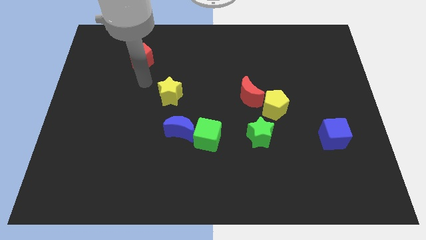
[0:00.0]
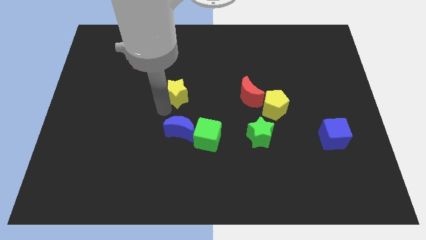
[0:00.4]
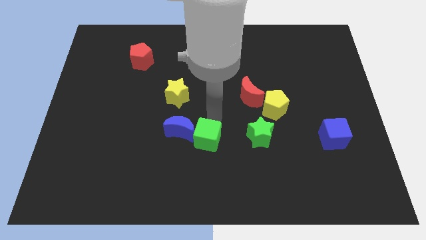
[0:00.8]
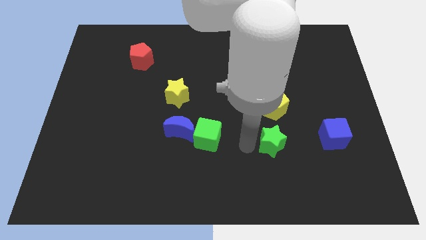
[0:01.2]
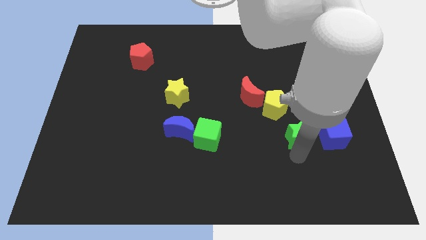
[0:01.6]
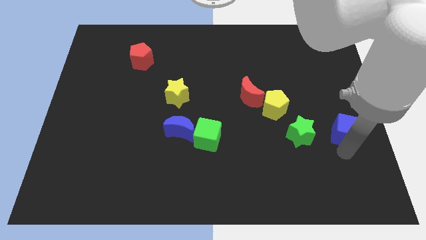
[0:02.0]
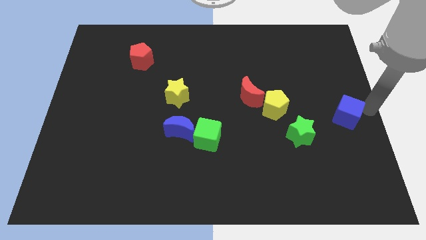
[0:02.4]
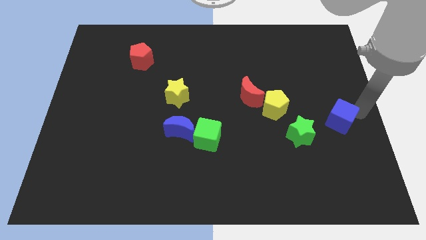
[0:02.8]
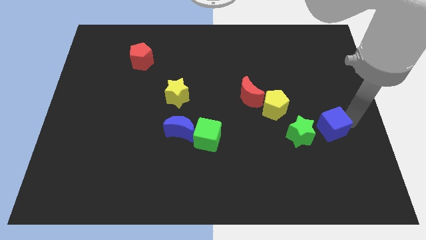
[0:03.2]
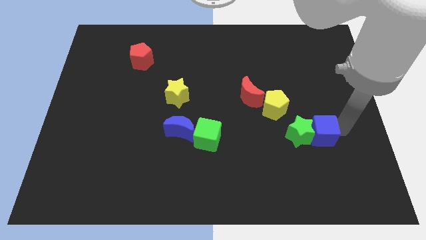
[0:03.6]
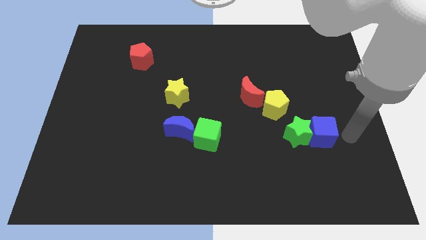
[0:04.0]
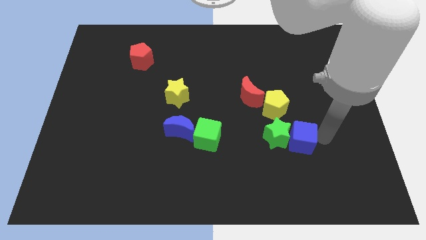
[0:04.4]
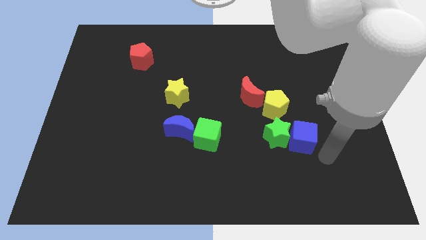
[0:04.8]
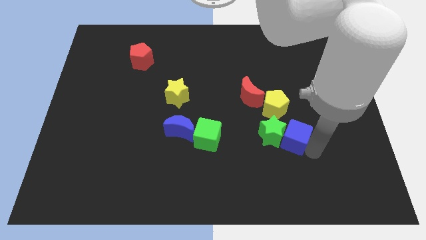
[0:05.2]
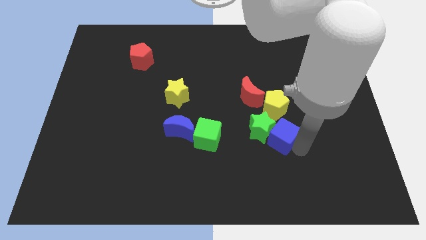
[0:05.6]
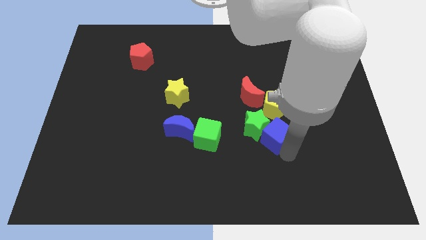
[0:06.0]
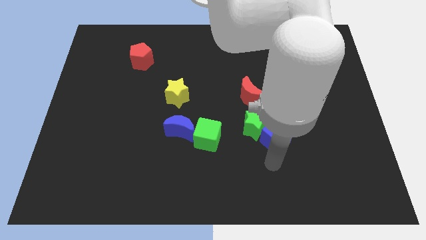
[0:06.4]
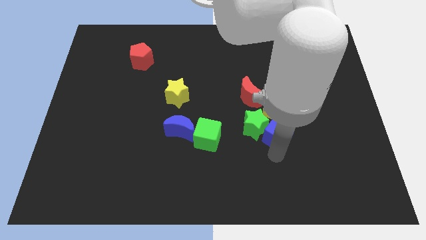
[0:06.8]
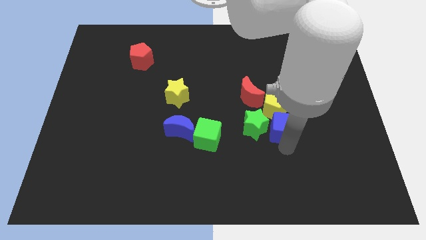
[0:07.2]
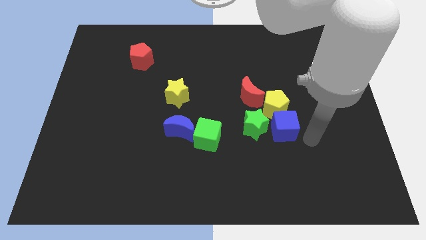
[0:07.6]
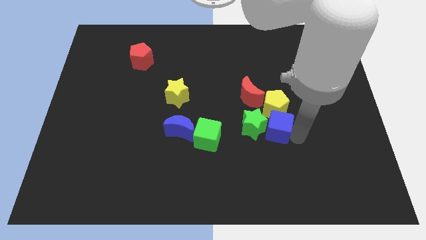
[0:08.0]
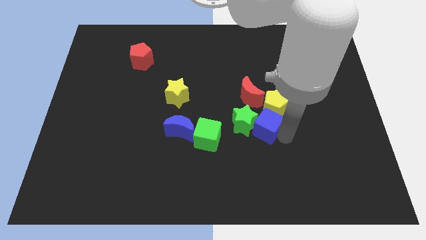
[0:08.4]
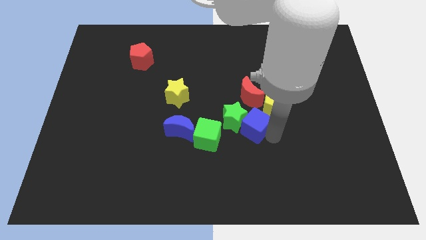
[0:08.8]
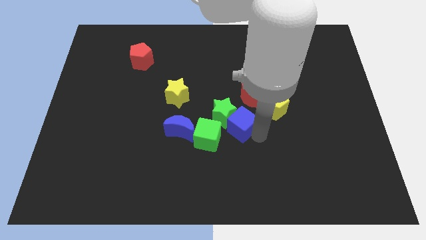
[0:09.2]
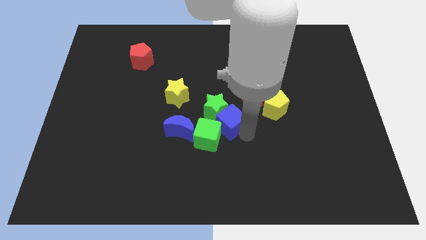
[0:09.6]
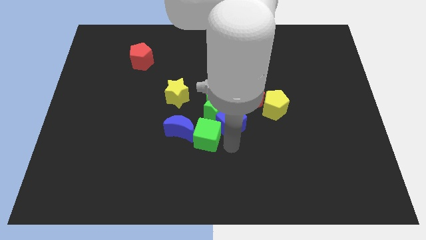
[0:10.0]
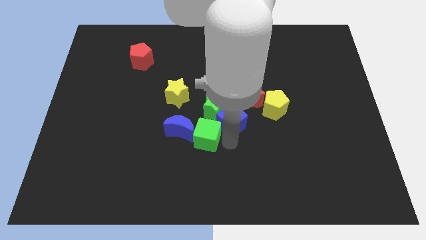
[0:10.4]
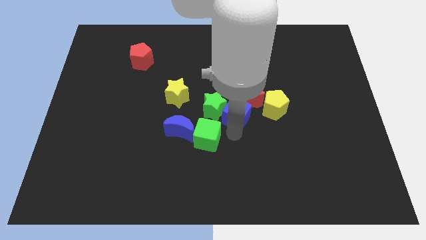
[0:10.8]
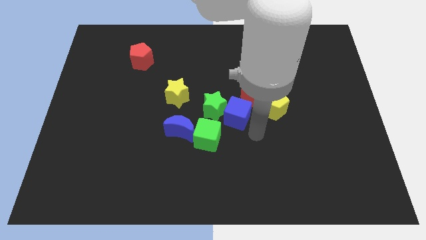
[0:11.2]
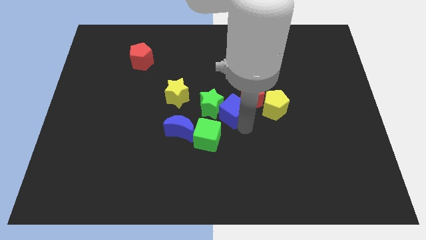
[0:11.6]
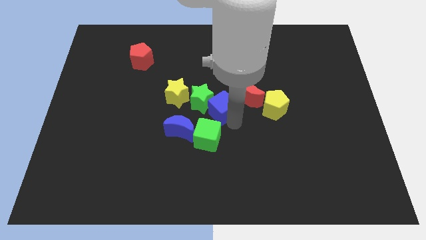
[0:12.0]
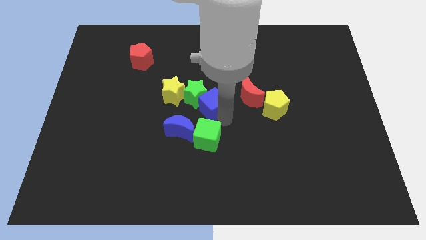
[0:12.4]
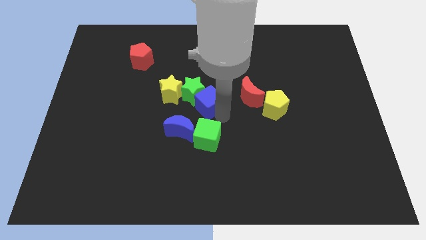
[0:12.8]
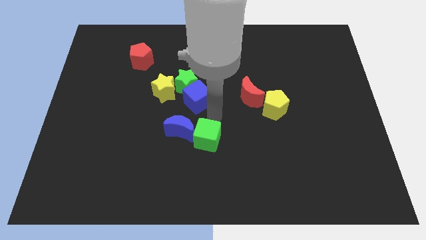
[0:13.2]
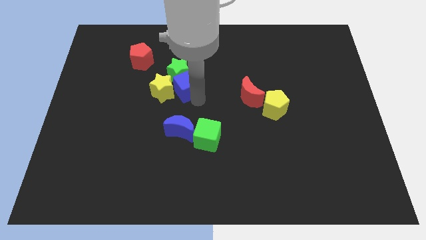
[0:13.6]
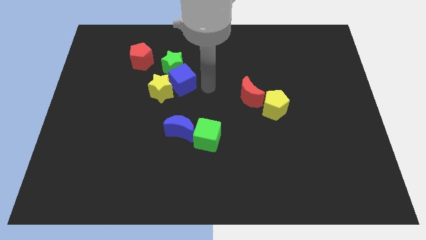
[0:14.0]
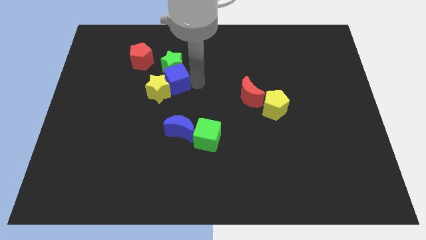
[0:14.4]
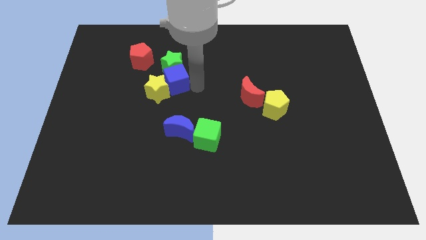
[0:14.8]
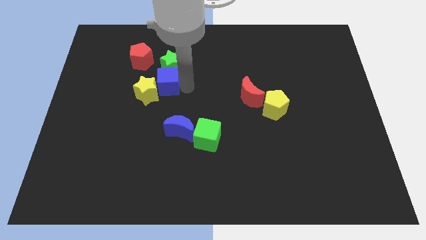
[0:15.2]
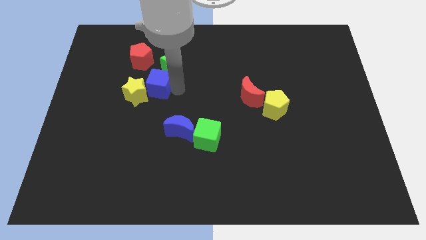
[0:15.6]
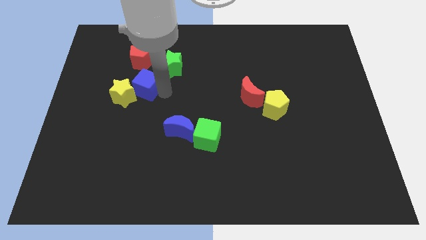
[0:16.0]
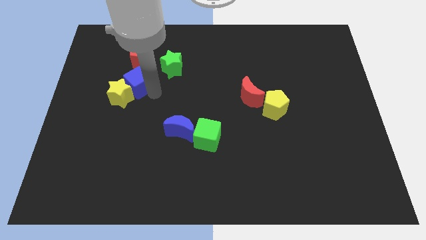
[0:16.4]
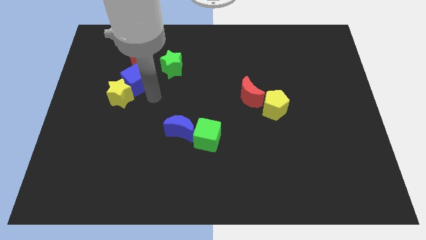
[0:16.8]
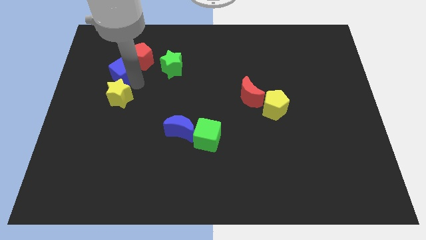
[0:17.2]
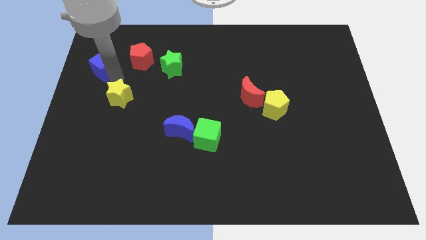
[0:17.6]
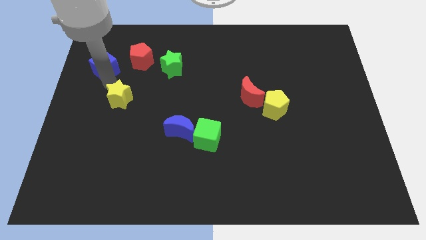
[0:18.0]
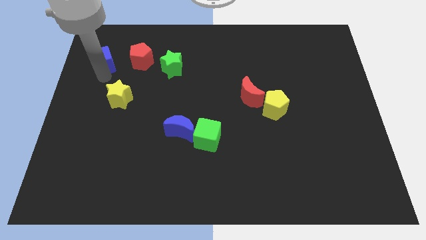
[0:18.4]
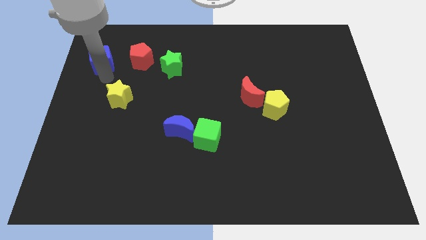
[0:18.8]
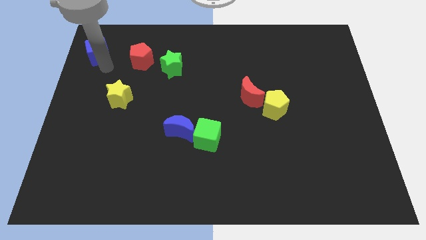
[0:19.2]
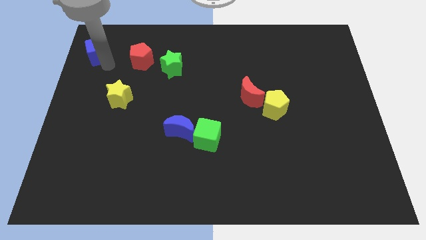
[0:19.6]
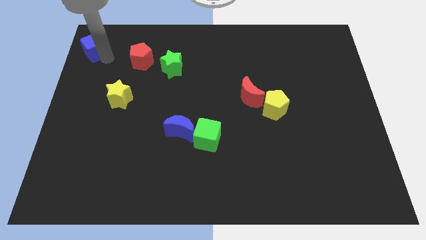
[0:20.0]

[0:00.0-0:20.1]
put the blue cube to the top left of the board

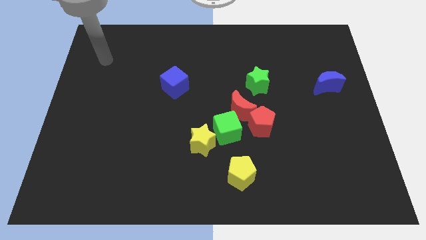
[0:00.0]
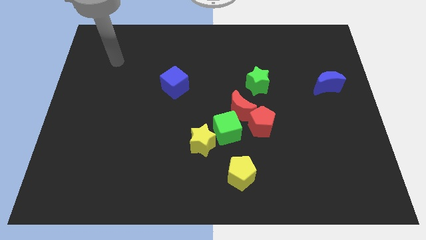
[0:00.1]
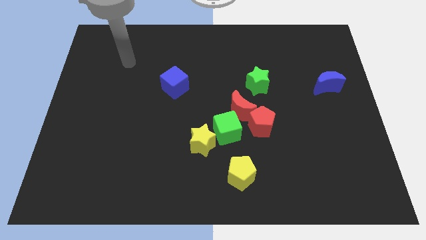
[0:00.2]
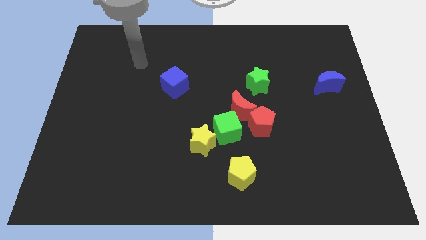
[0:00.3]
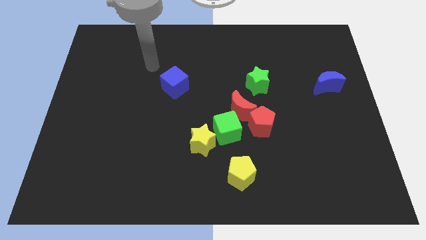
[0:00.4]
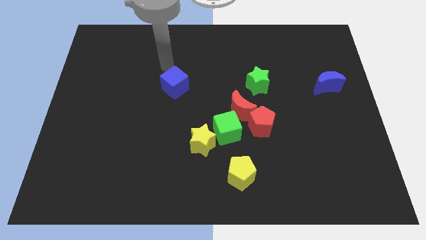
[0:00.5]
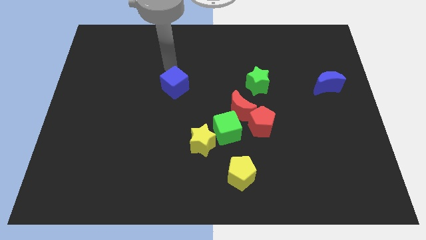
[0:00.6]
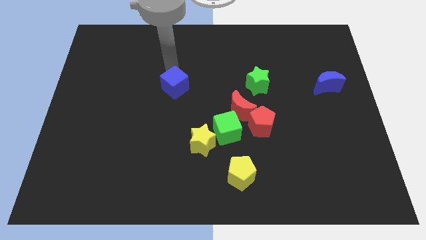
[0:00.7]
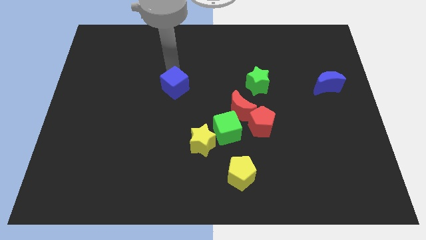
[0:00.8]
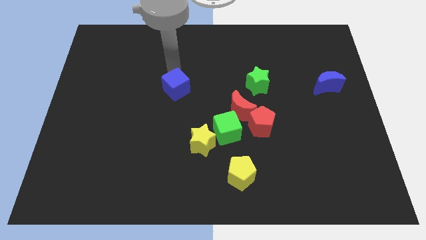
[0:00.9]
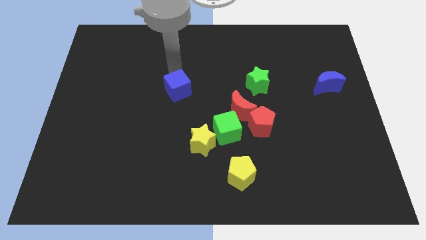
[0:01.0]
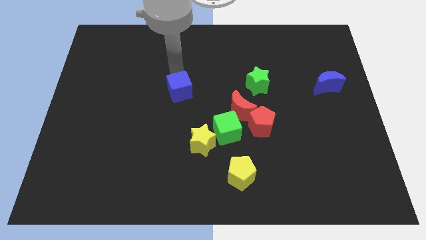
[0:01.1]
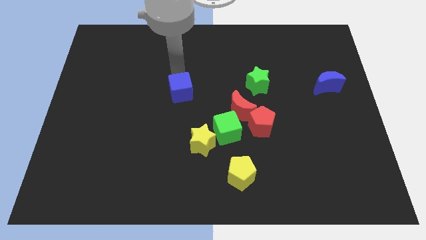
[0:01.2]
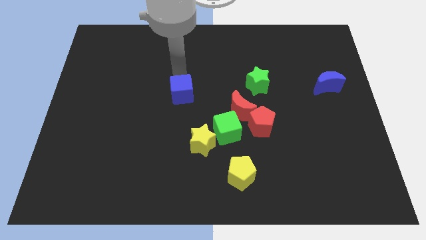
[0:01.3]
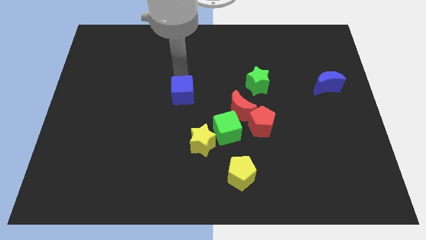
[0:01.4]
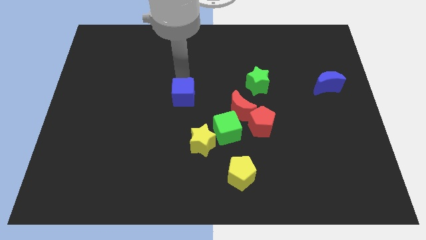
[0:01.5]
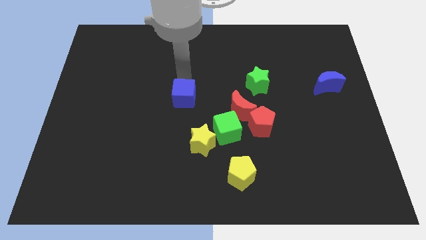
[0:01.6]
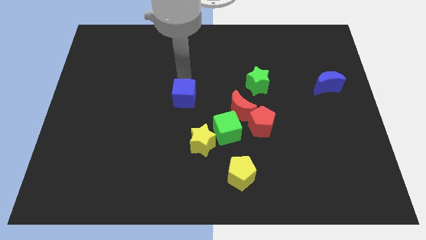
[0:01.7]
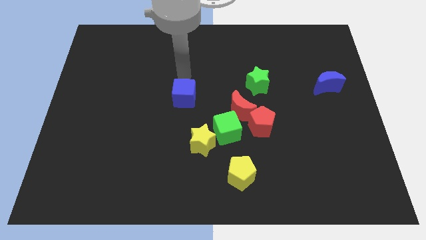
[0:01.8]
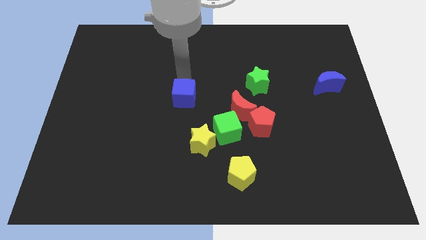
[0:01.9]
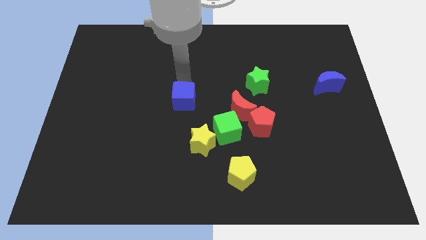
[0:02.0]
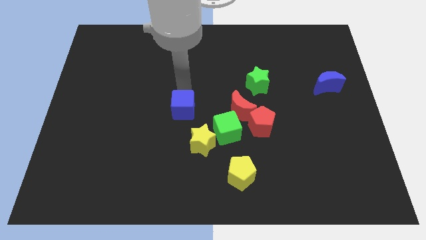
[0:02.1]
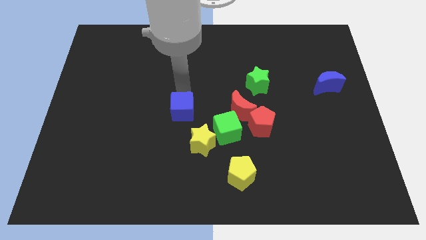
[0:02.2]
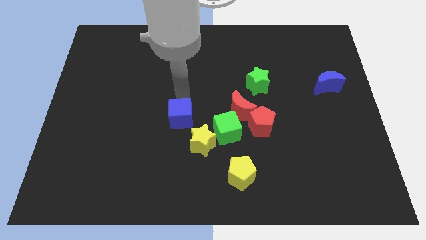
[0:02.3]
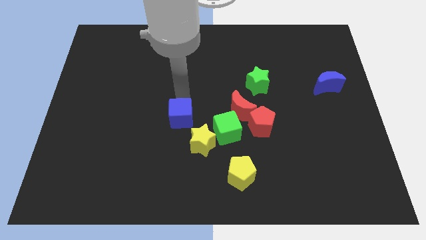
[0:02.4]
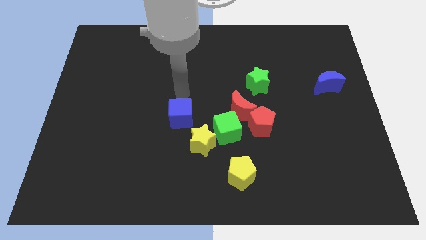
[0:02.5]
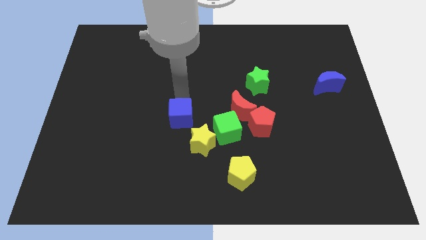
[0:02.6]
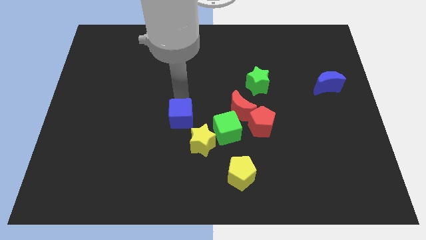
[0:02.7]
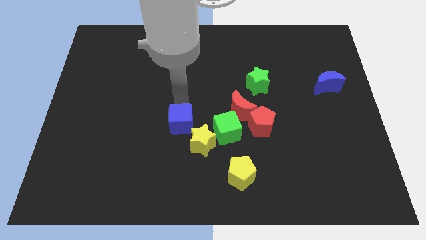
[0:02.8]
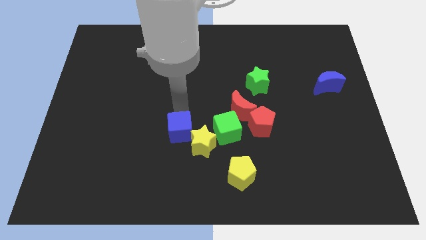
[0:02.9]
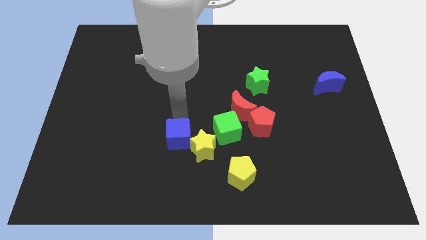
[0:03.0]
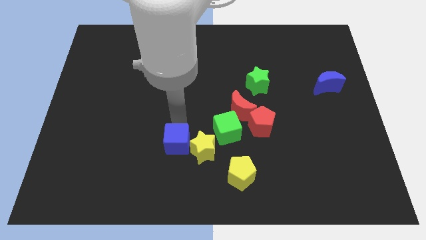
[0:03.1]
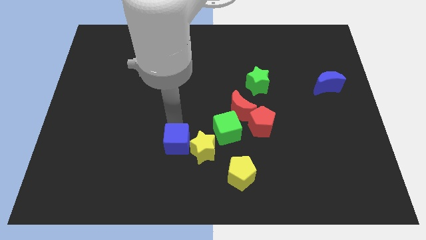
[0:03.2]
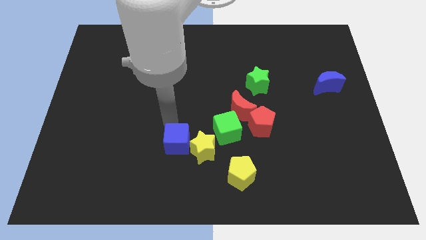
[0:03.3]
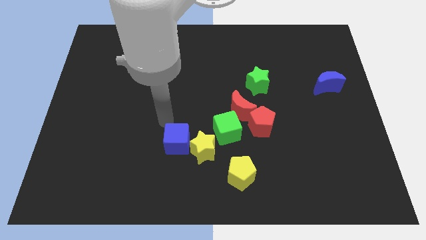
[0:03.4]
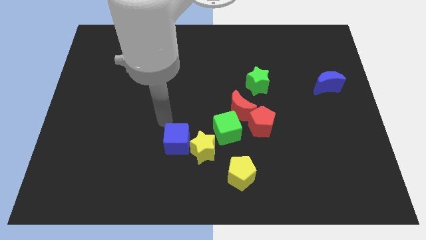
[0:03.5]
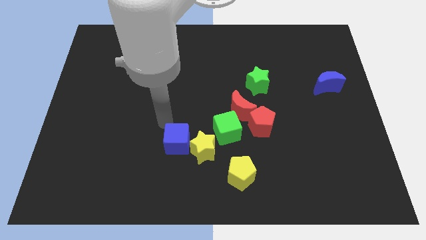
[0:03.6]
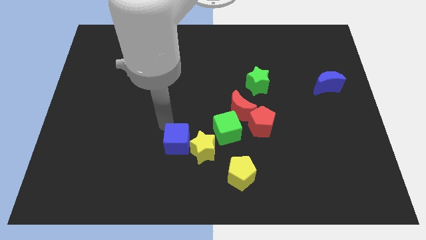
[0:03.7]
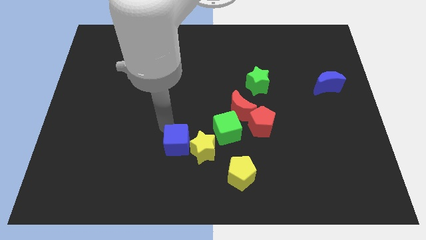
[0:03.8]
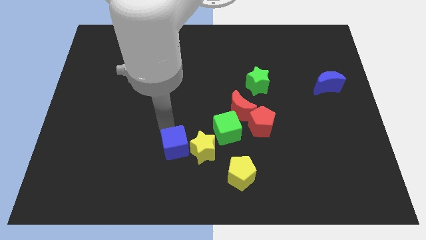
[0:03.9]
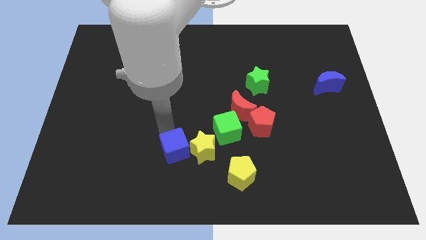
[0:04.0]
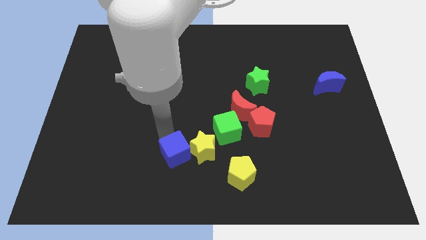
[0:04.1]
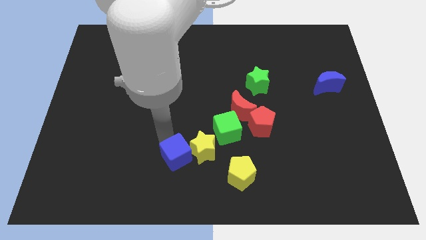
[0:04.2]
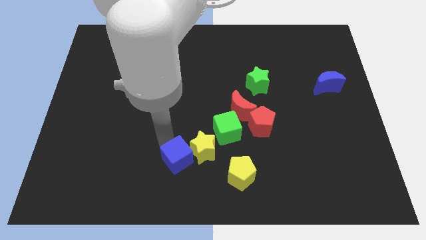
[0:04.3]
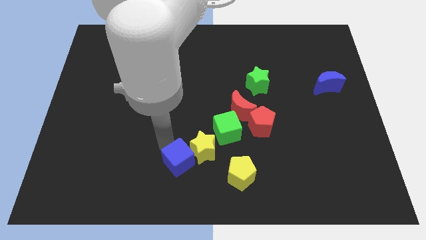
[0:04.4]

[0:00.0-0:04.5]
slide the blue cube to the bottom
